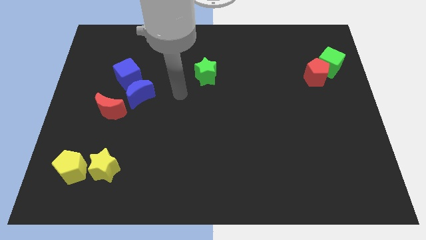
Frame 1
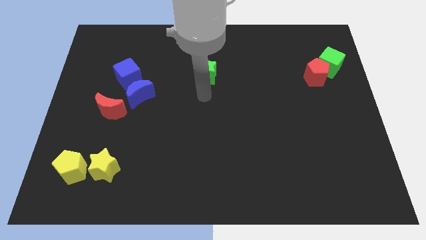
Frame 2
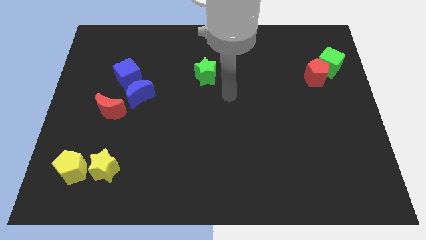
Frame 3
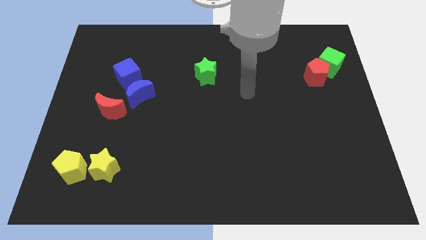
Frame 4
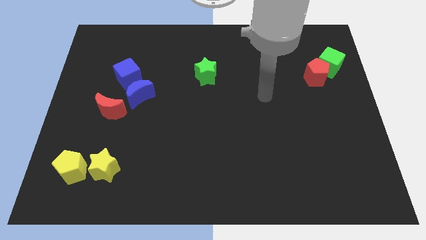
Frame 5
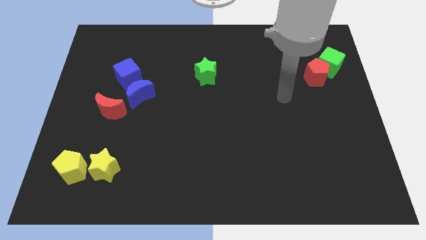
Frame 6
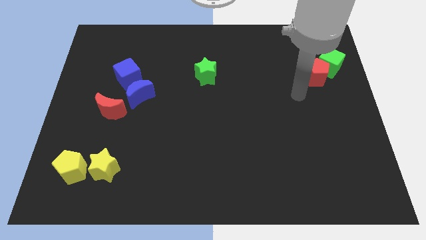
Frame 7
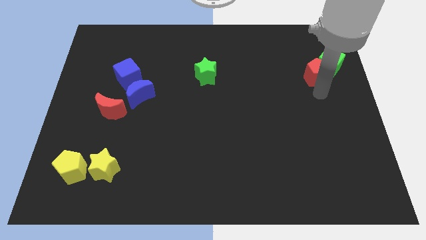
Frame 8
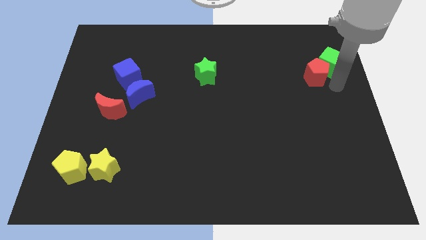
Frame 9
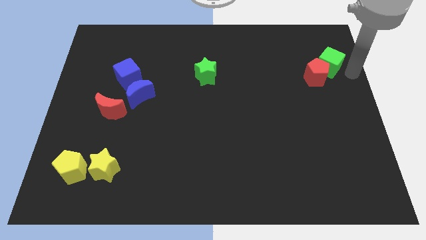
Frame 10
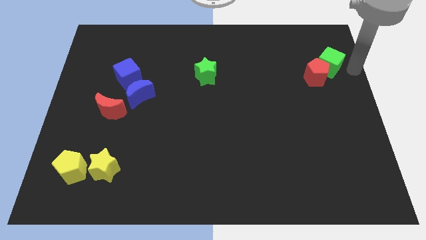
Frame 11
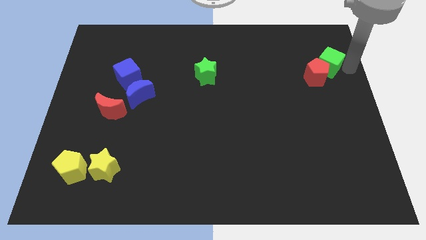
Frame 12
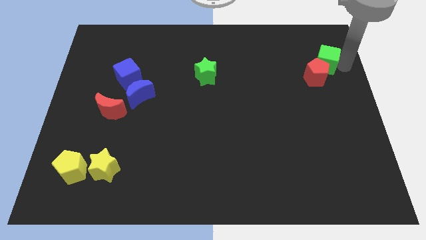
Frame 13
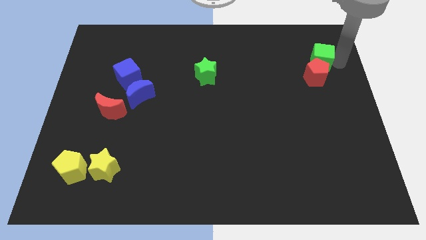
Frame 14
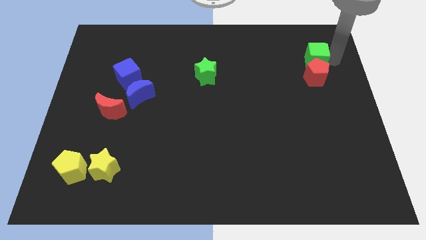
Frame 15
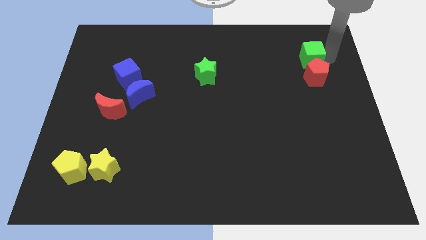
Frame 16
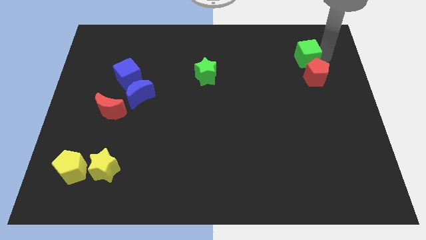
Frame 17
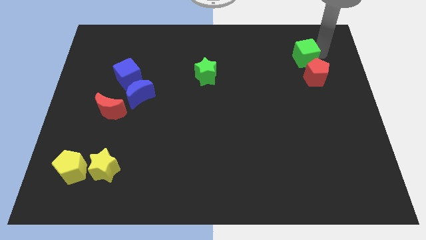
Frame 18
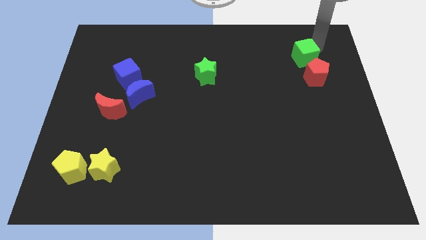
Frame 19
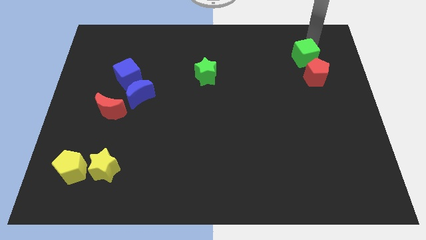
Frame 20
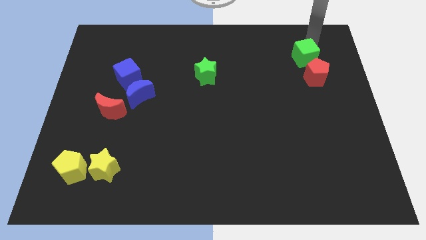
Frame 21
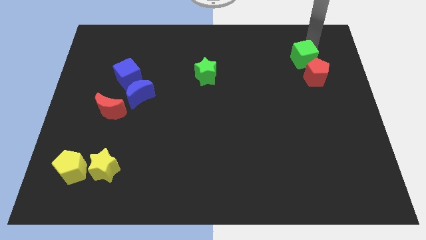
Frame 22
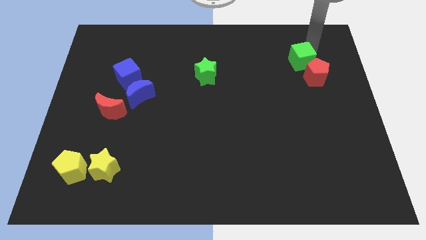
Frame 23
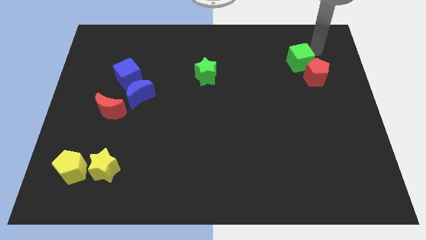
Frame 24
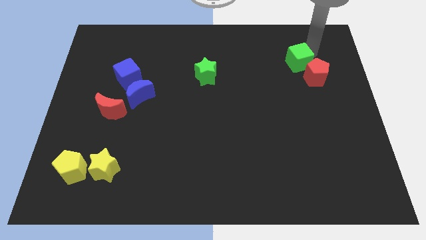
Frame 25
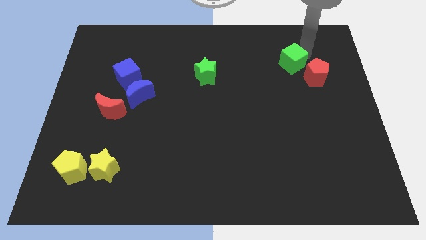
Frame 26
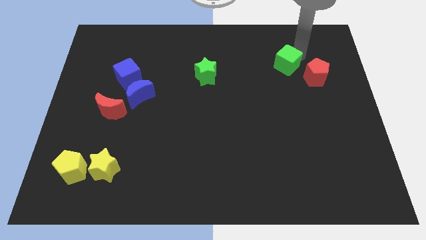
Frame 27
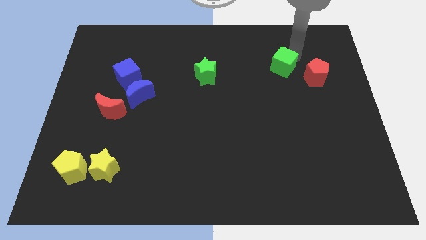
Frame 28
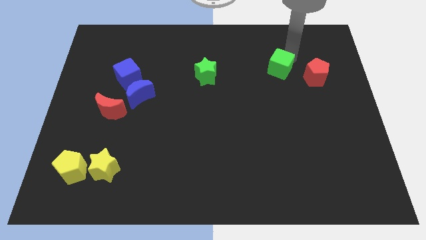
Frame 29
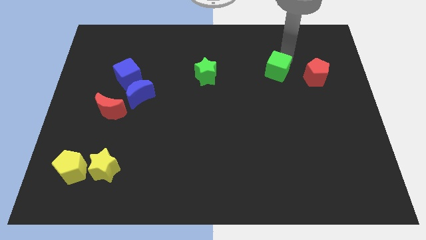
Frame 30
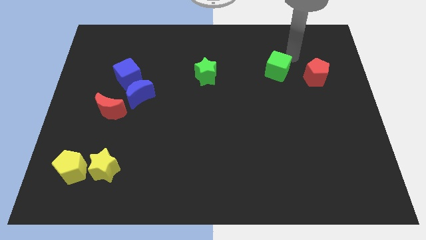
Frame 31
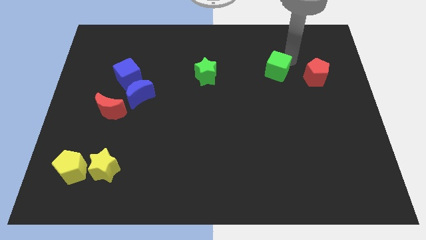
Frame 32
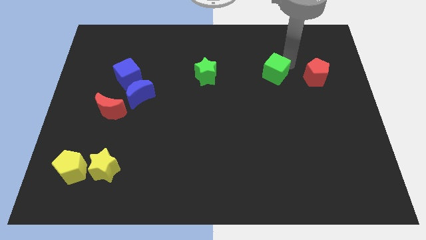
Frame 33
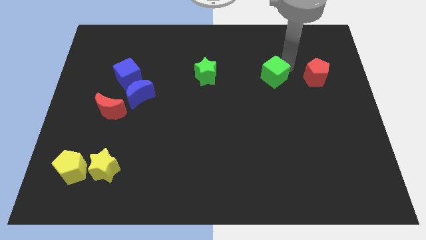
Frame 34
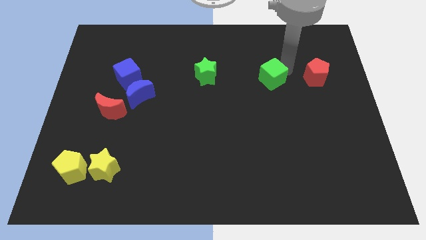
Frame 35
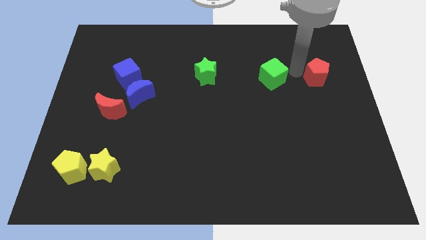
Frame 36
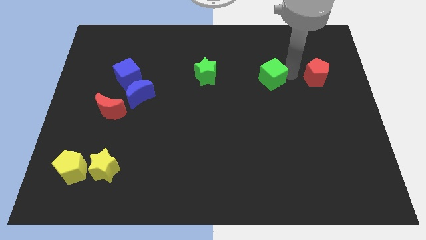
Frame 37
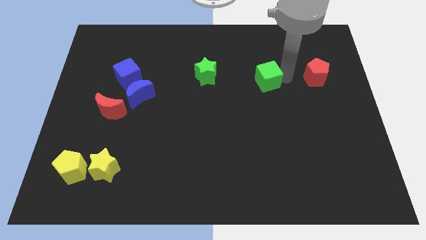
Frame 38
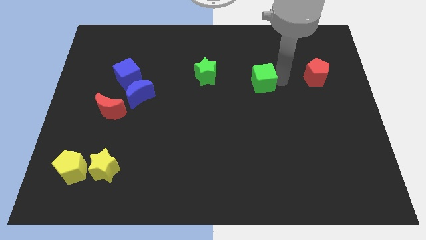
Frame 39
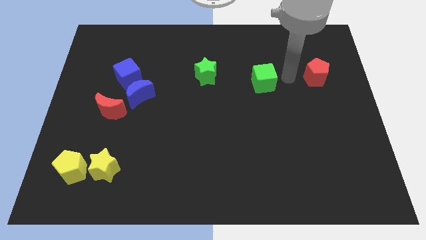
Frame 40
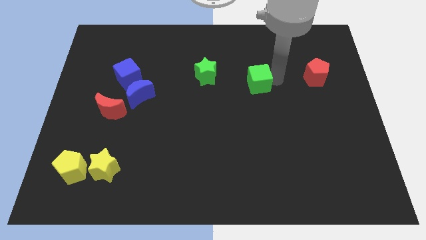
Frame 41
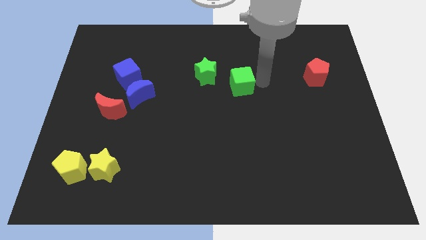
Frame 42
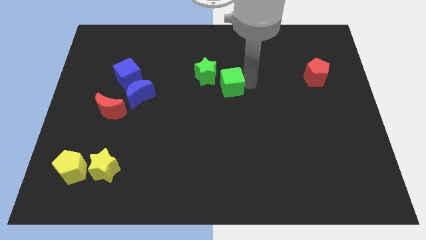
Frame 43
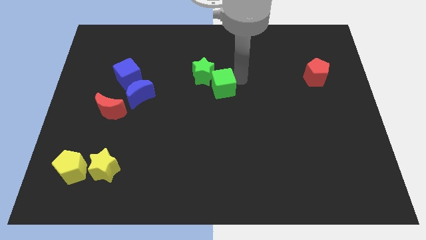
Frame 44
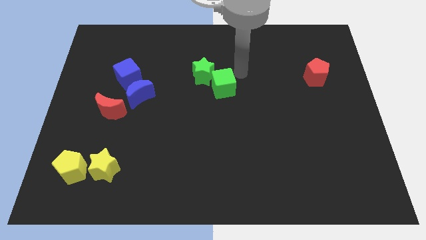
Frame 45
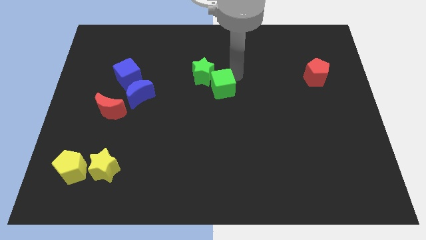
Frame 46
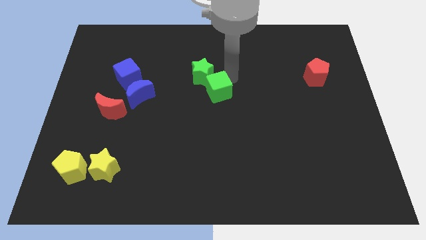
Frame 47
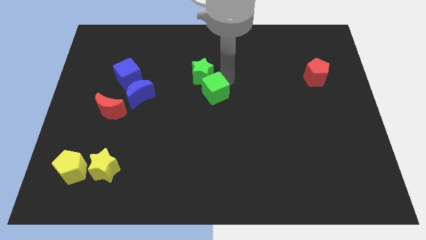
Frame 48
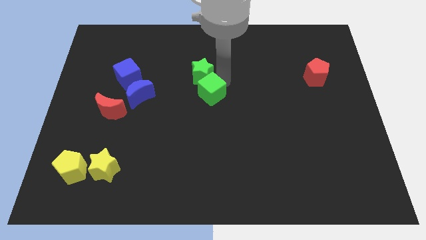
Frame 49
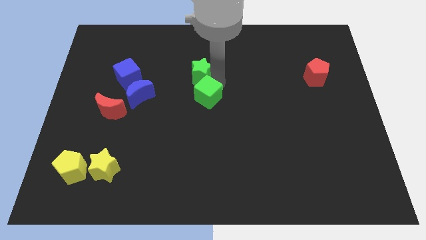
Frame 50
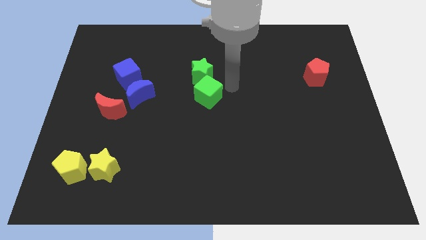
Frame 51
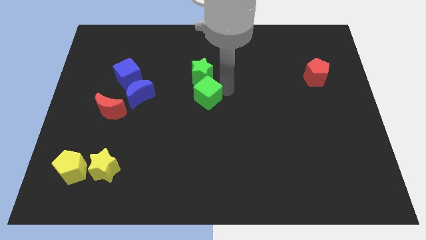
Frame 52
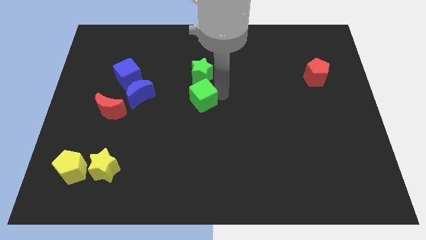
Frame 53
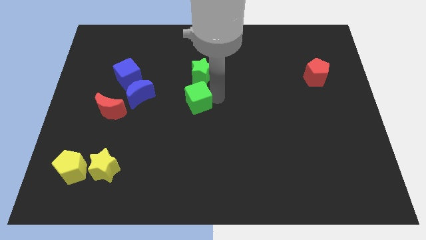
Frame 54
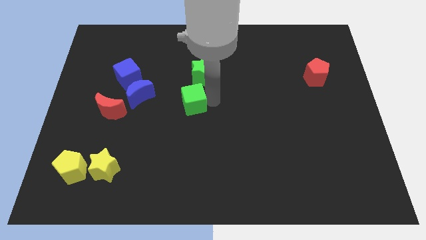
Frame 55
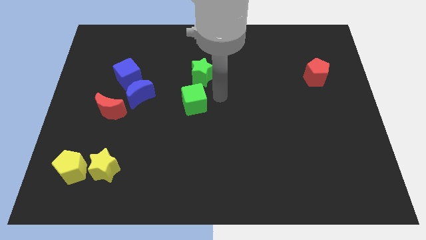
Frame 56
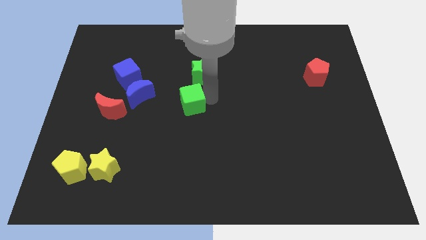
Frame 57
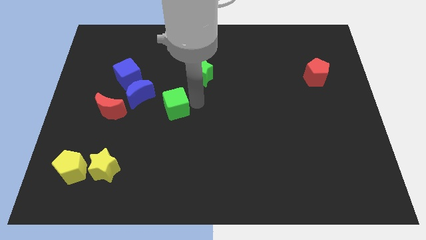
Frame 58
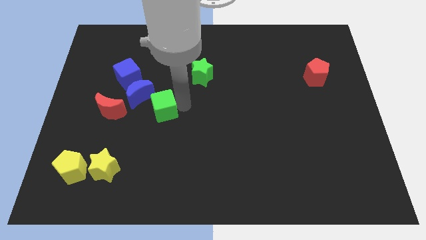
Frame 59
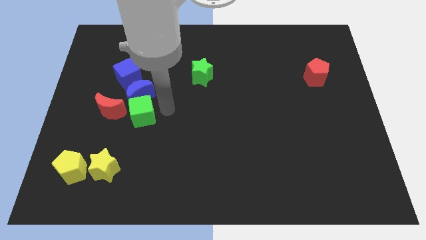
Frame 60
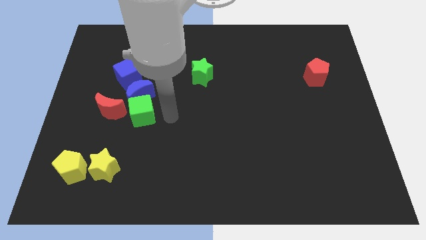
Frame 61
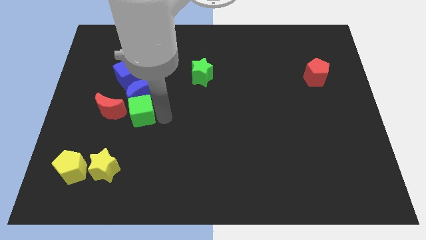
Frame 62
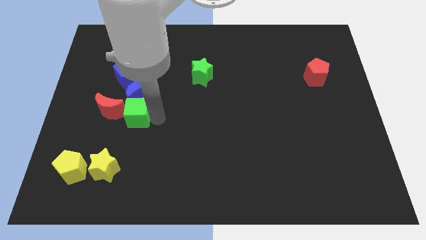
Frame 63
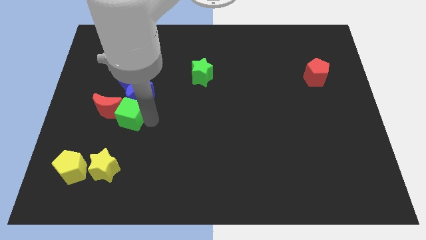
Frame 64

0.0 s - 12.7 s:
move the green cube towards the red moon

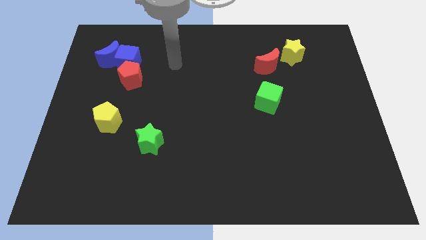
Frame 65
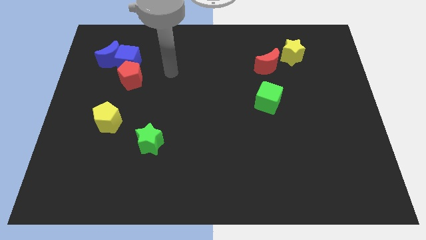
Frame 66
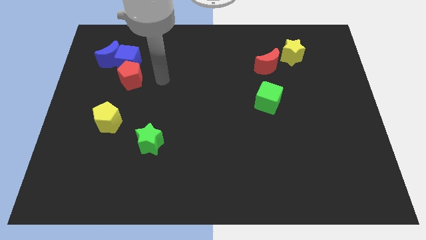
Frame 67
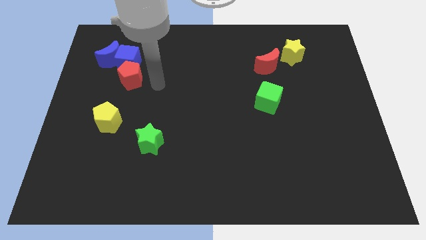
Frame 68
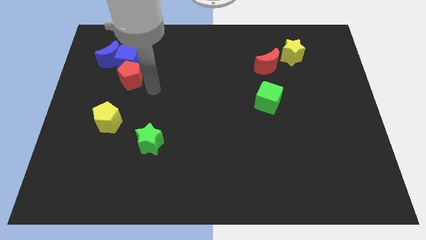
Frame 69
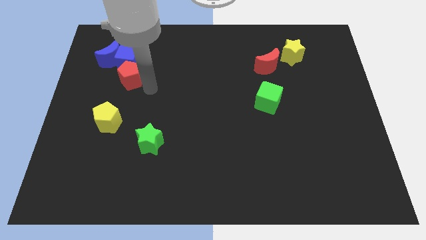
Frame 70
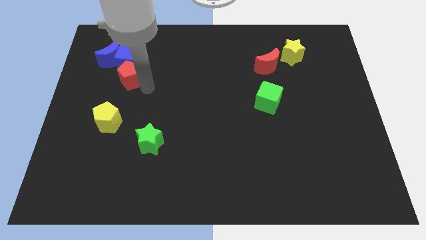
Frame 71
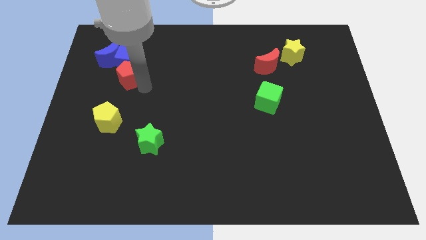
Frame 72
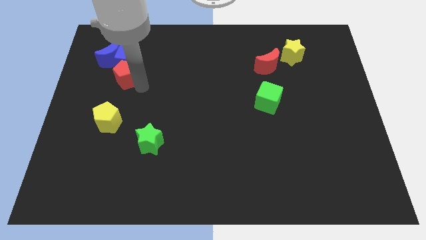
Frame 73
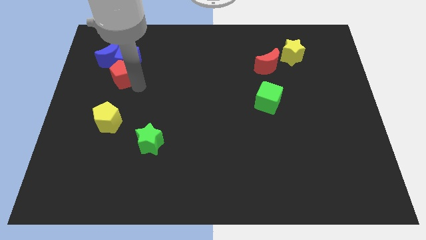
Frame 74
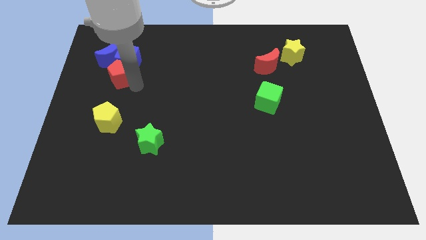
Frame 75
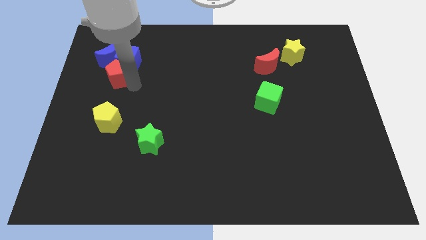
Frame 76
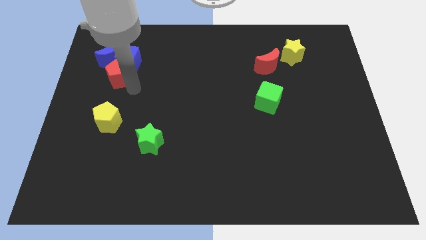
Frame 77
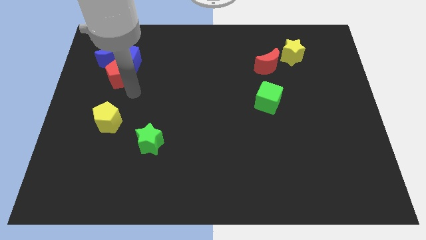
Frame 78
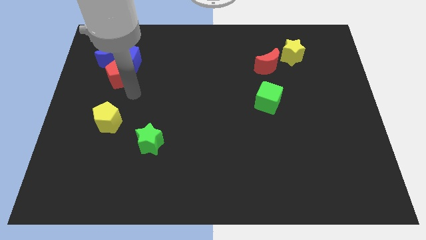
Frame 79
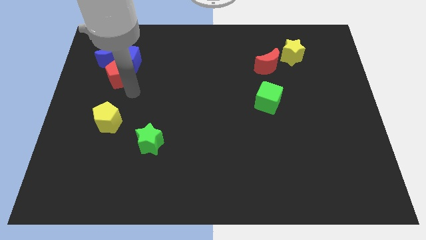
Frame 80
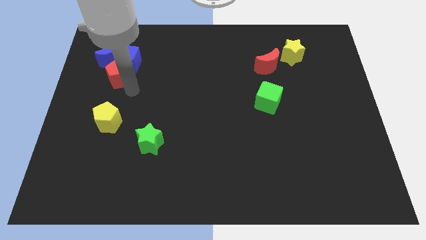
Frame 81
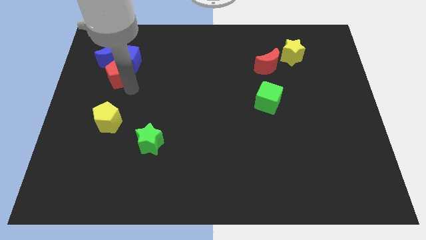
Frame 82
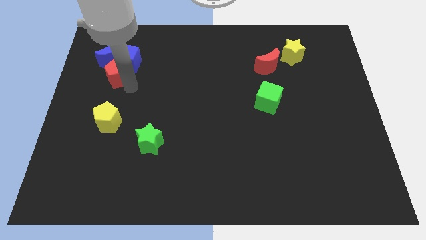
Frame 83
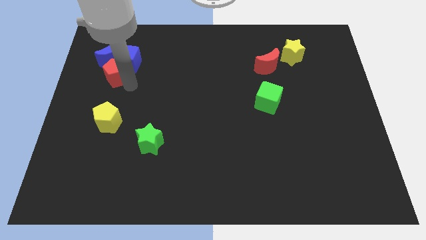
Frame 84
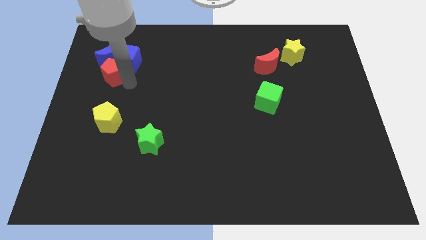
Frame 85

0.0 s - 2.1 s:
move the red pentagon close to the blue moon
